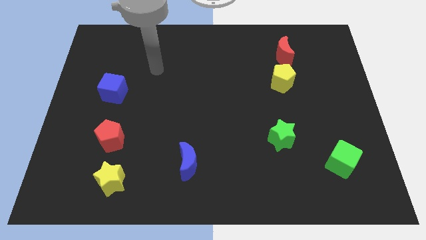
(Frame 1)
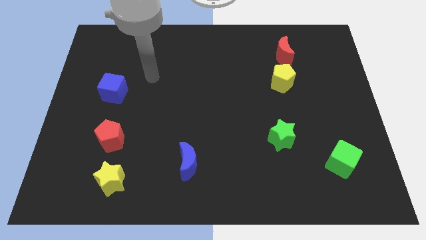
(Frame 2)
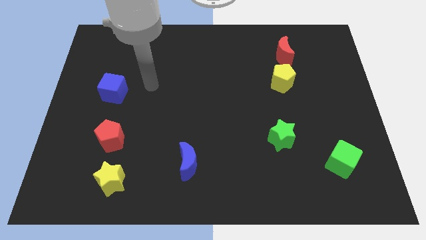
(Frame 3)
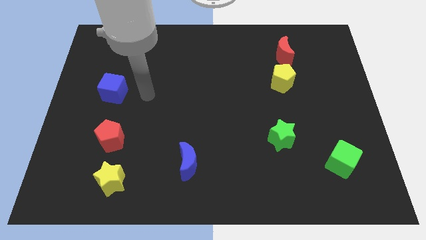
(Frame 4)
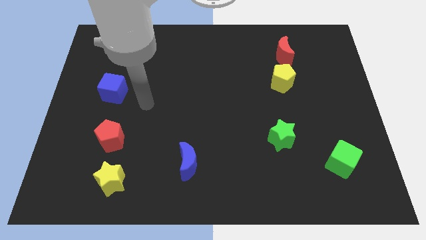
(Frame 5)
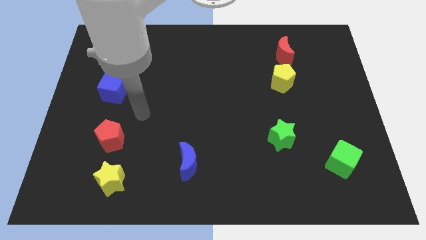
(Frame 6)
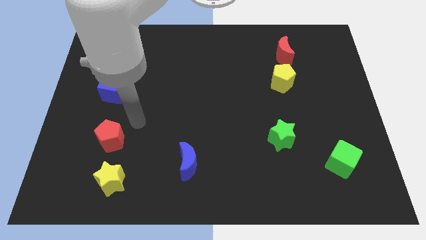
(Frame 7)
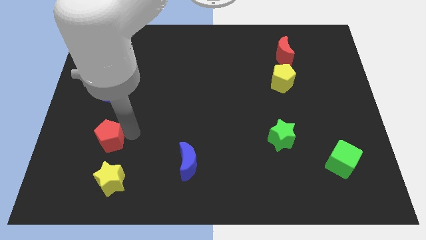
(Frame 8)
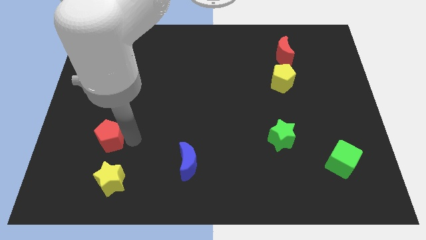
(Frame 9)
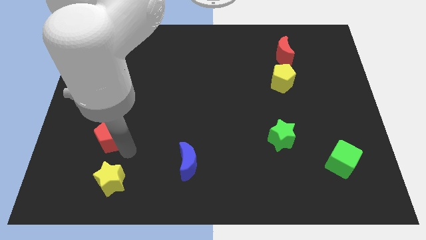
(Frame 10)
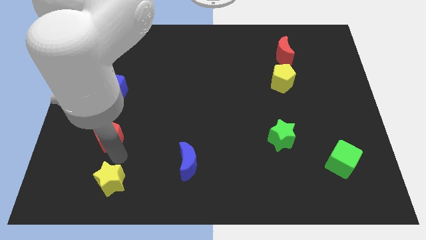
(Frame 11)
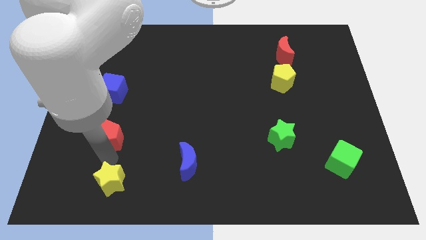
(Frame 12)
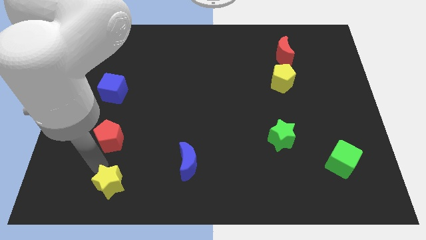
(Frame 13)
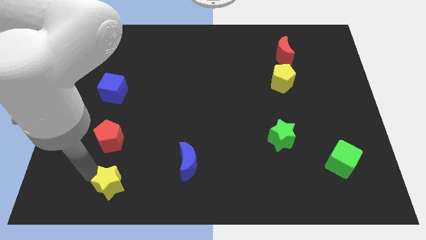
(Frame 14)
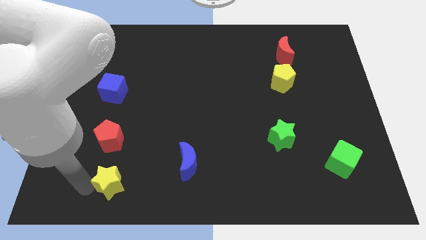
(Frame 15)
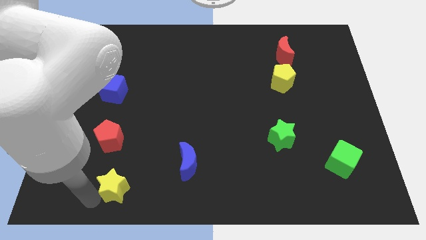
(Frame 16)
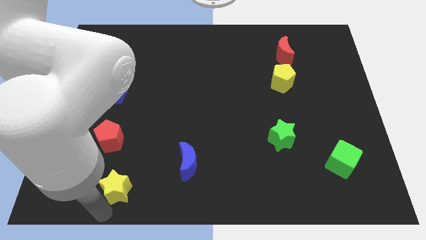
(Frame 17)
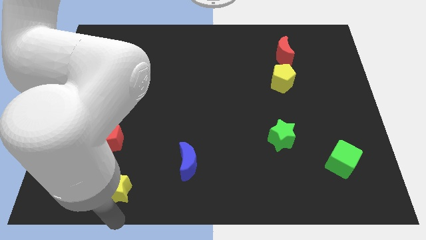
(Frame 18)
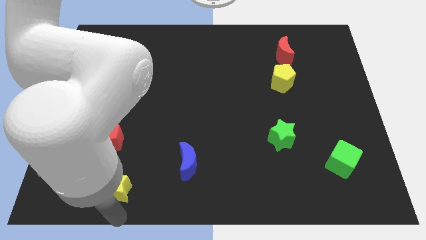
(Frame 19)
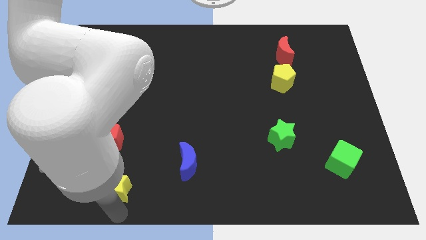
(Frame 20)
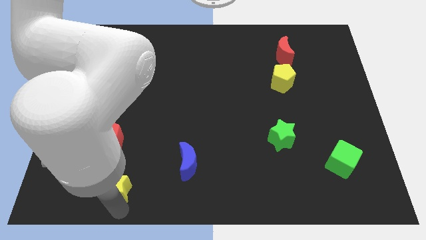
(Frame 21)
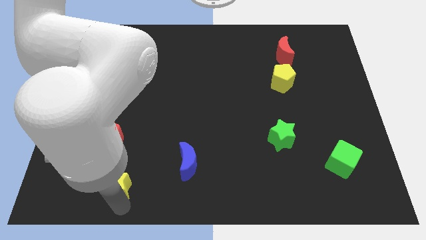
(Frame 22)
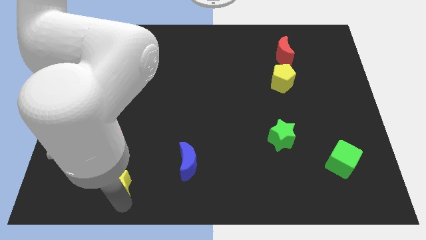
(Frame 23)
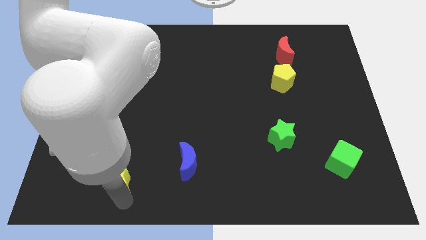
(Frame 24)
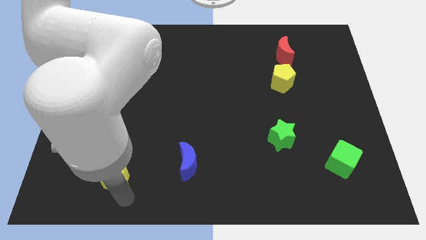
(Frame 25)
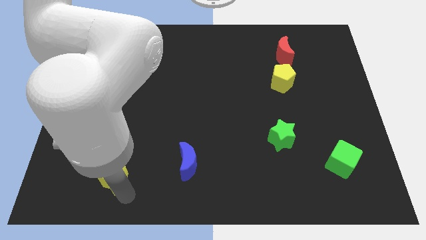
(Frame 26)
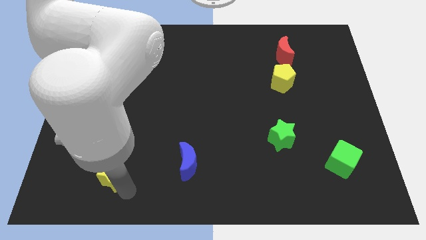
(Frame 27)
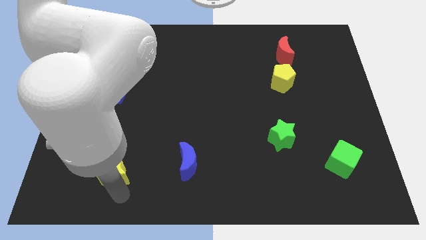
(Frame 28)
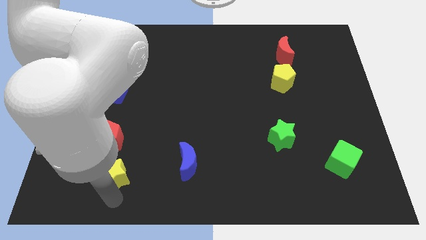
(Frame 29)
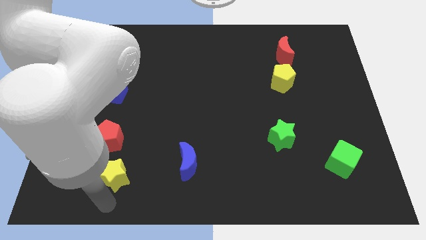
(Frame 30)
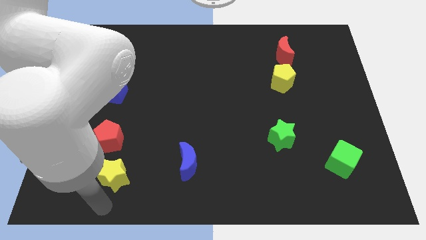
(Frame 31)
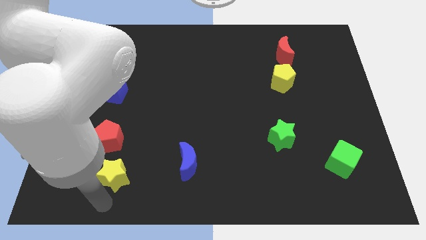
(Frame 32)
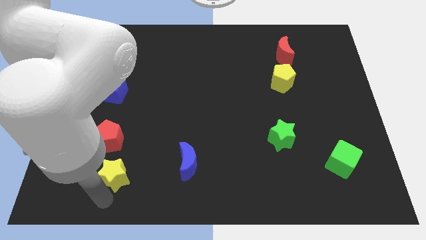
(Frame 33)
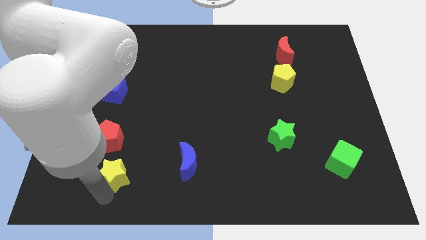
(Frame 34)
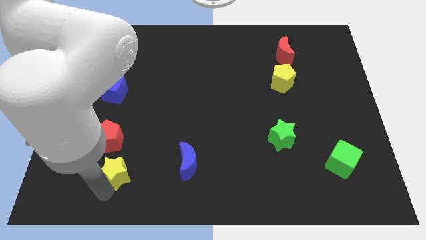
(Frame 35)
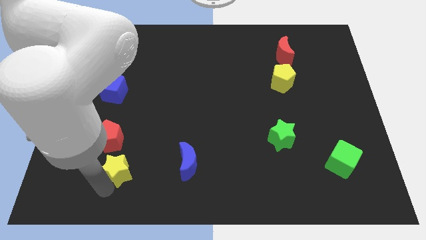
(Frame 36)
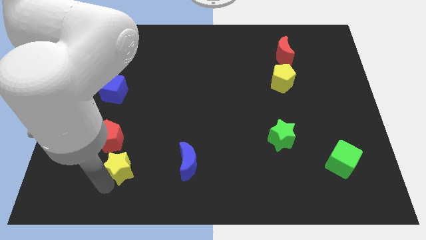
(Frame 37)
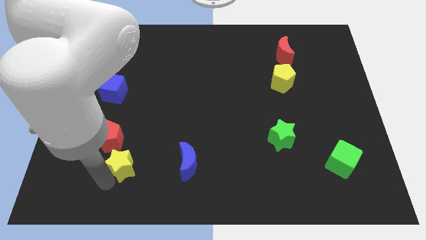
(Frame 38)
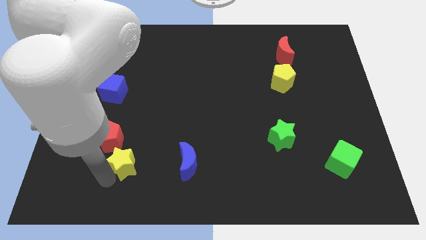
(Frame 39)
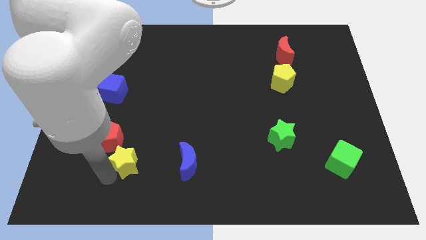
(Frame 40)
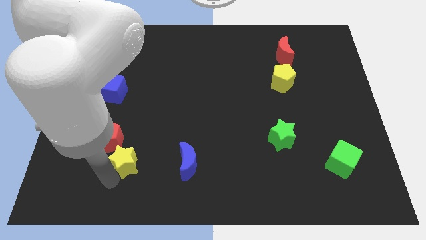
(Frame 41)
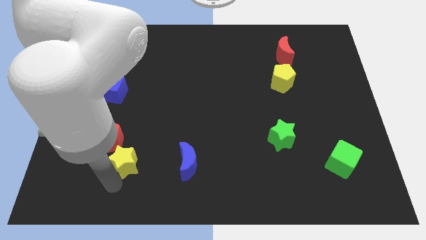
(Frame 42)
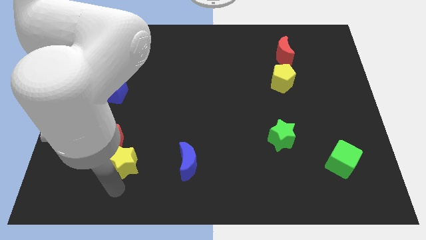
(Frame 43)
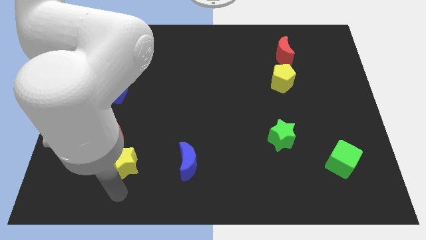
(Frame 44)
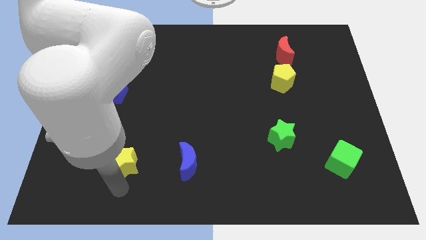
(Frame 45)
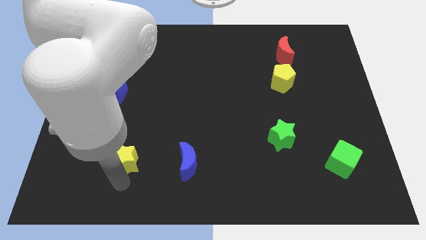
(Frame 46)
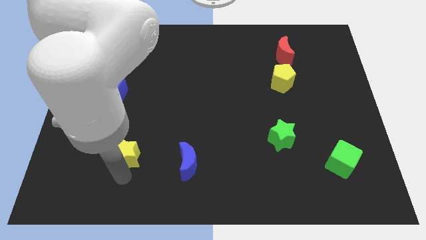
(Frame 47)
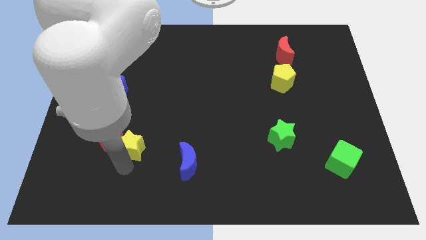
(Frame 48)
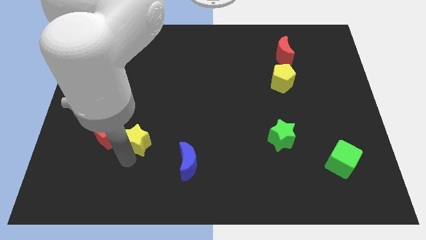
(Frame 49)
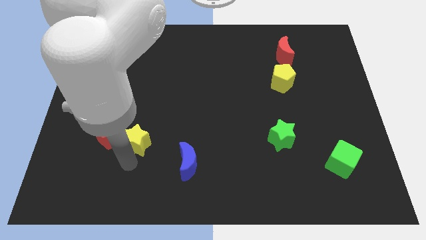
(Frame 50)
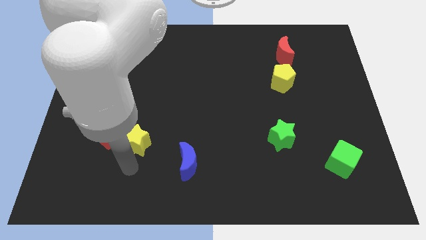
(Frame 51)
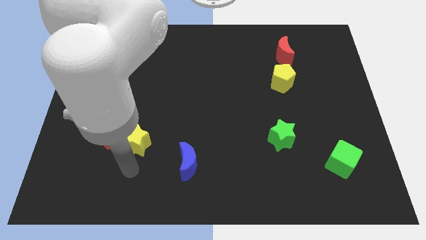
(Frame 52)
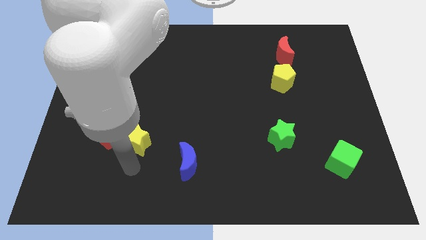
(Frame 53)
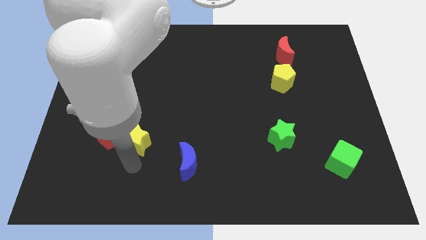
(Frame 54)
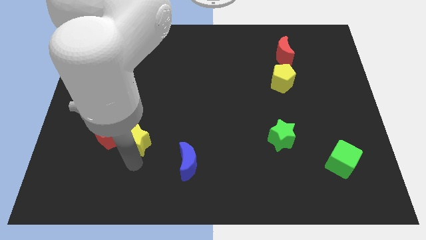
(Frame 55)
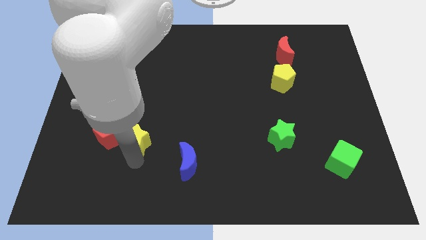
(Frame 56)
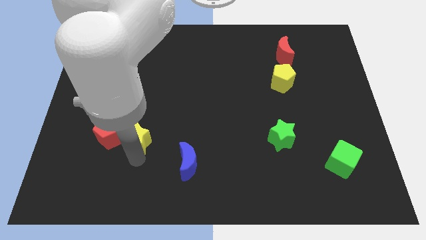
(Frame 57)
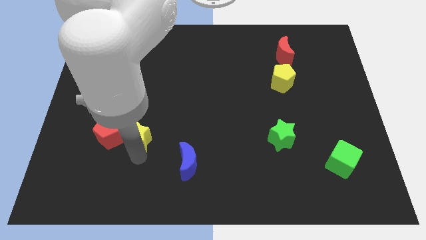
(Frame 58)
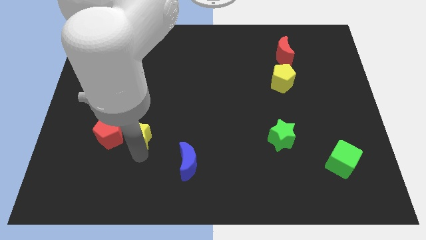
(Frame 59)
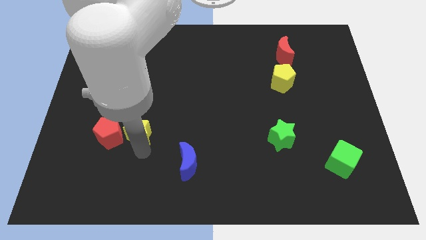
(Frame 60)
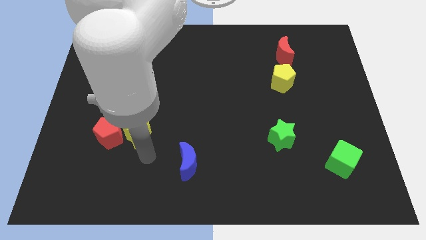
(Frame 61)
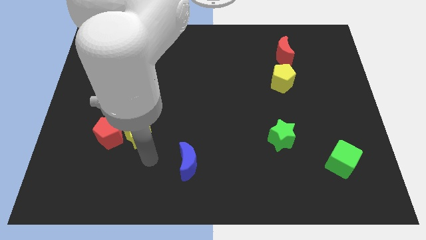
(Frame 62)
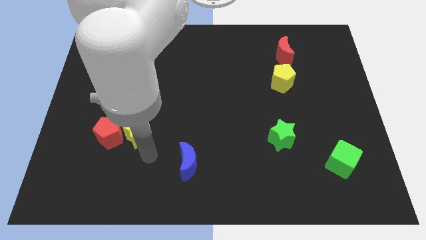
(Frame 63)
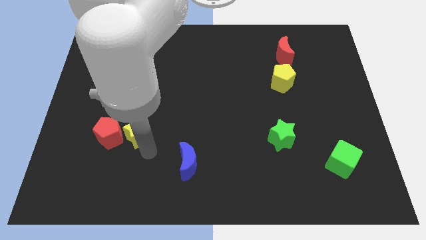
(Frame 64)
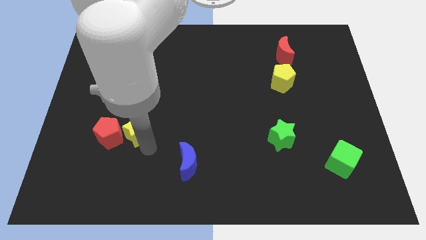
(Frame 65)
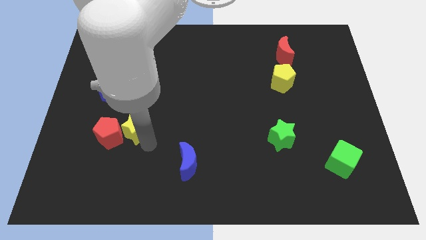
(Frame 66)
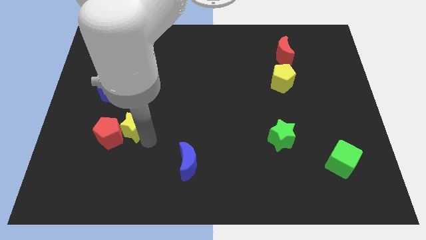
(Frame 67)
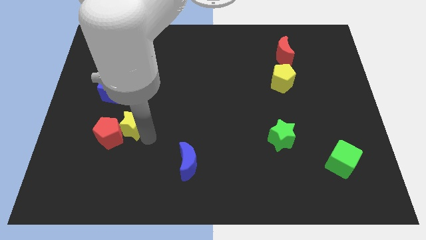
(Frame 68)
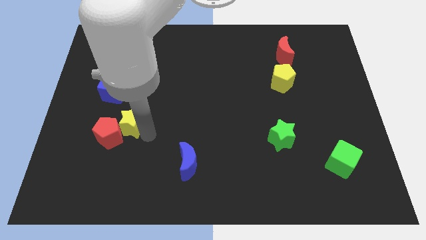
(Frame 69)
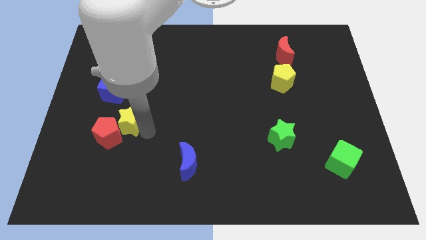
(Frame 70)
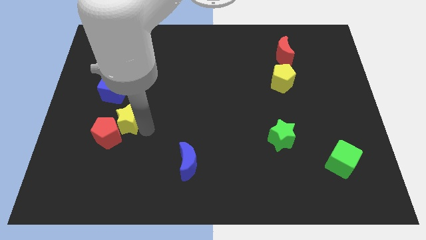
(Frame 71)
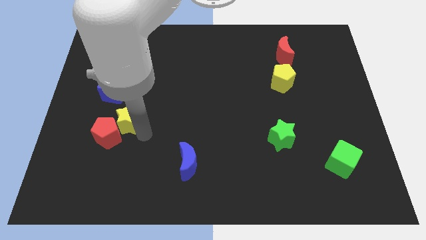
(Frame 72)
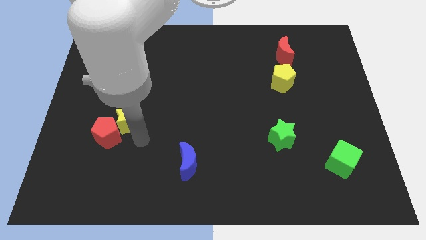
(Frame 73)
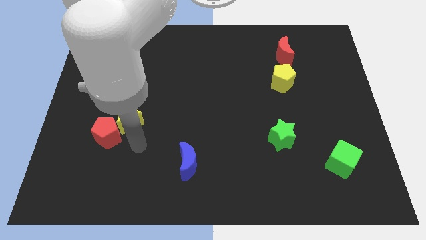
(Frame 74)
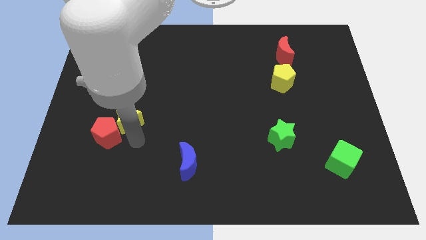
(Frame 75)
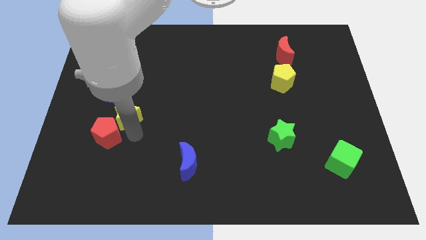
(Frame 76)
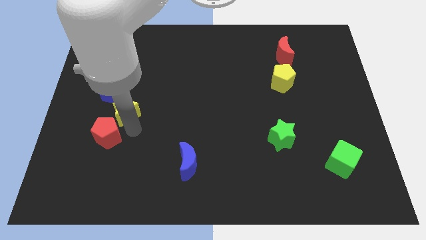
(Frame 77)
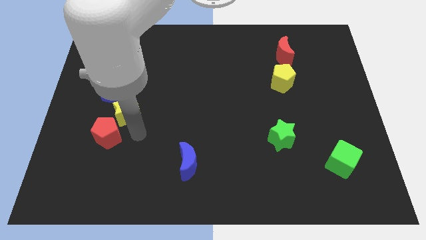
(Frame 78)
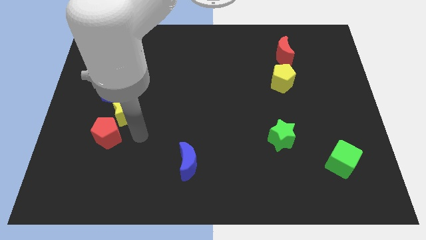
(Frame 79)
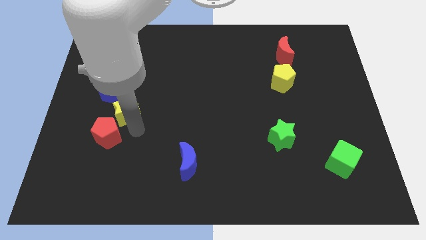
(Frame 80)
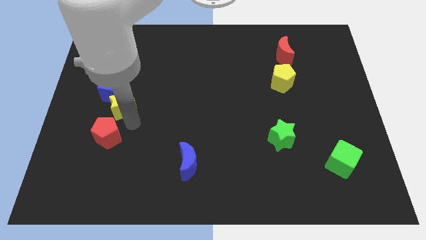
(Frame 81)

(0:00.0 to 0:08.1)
slide the yellow star towards the blue cube
